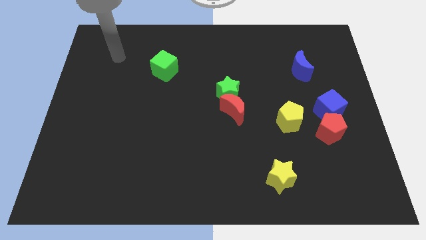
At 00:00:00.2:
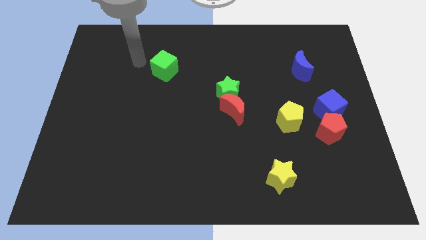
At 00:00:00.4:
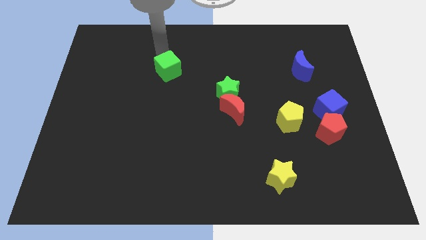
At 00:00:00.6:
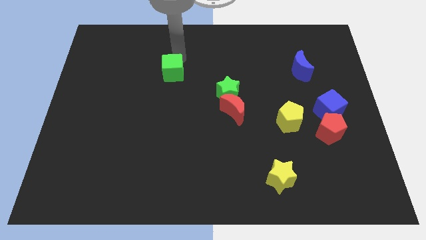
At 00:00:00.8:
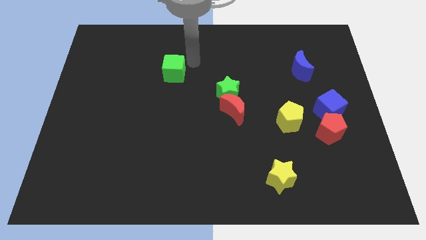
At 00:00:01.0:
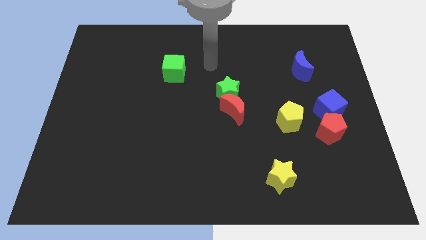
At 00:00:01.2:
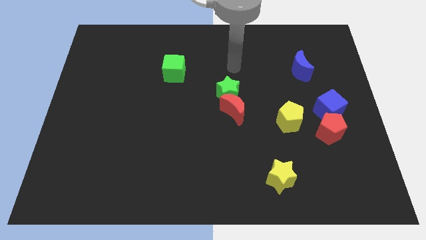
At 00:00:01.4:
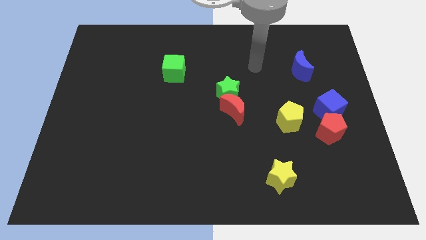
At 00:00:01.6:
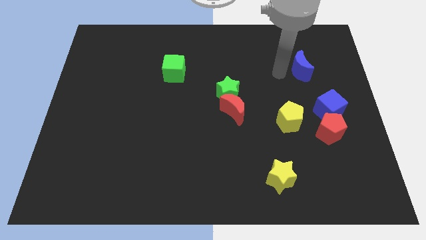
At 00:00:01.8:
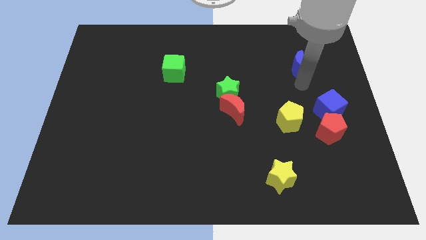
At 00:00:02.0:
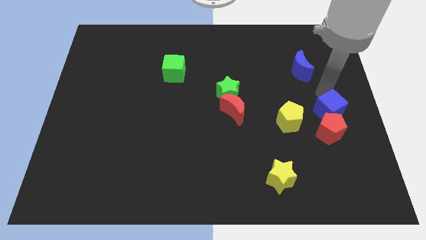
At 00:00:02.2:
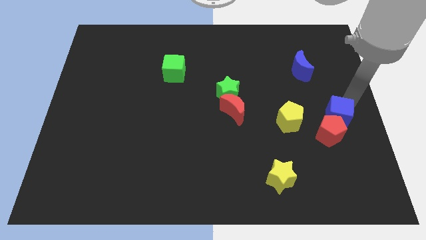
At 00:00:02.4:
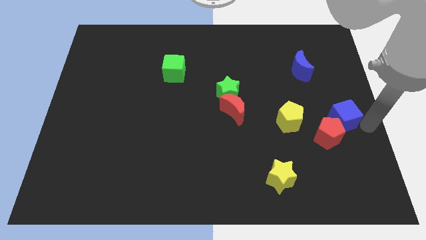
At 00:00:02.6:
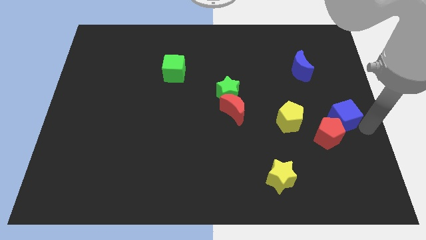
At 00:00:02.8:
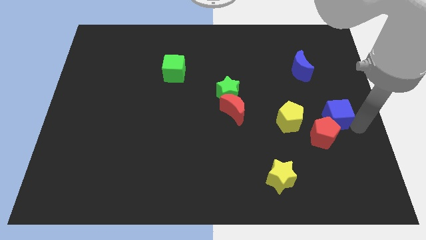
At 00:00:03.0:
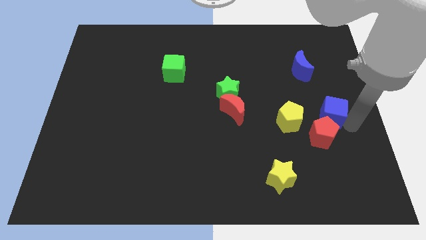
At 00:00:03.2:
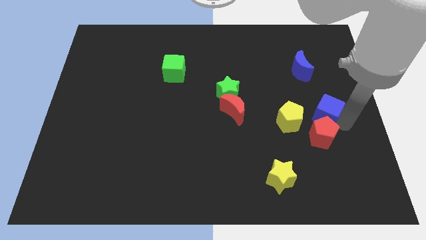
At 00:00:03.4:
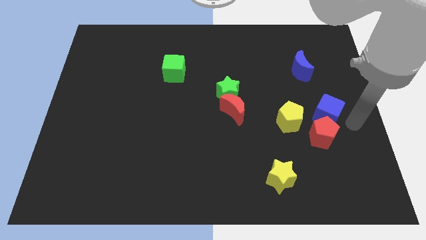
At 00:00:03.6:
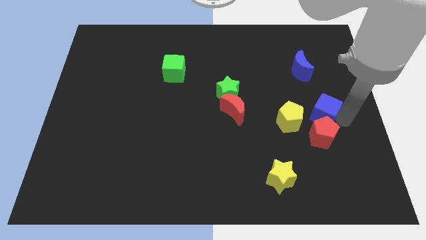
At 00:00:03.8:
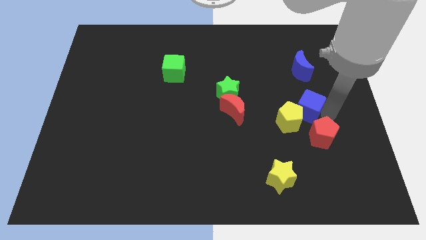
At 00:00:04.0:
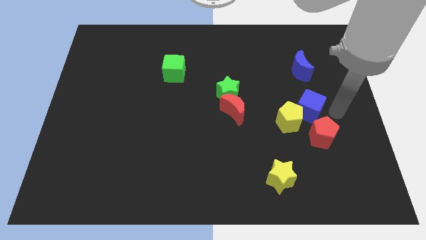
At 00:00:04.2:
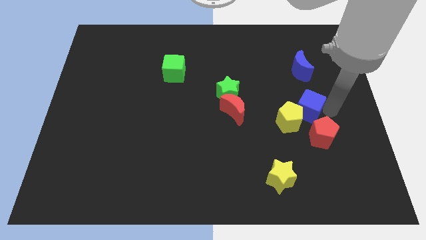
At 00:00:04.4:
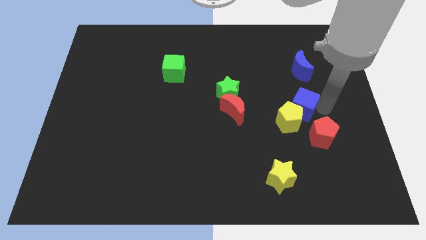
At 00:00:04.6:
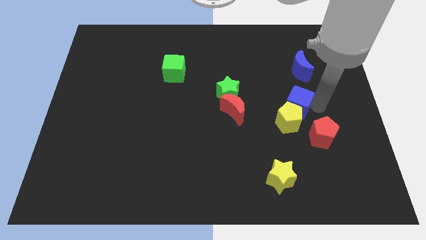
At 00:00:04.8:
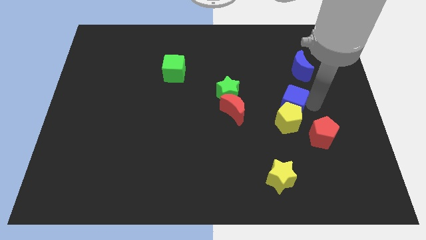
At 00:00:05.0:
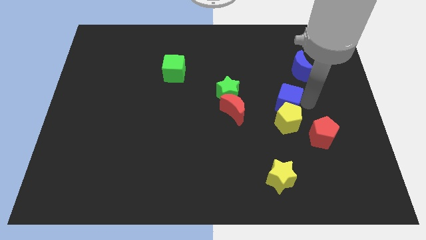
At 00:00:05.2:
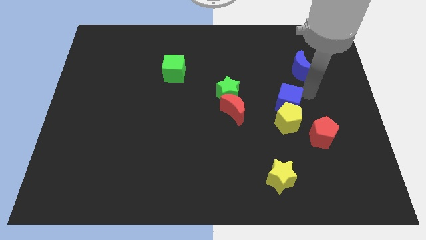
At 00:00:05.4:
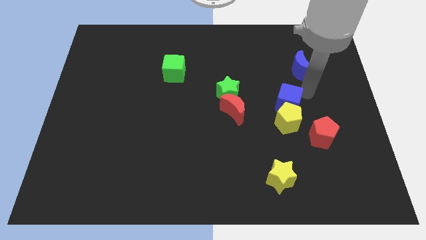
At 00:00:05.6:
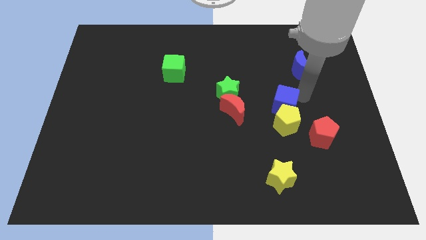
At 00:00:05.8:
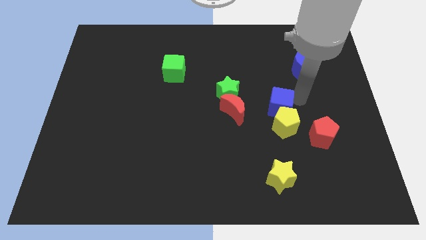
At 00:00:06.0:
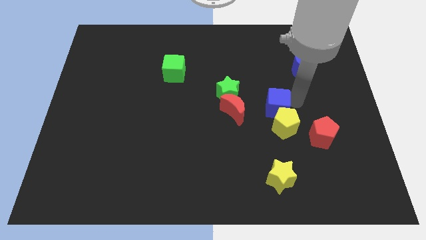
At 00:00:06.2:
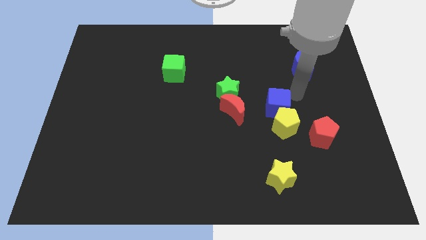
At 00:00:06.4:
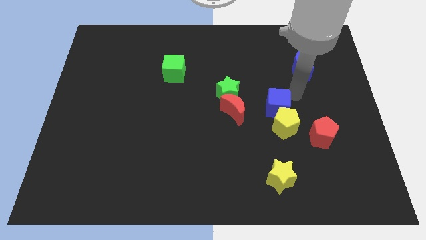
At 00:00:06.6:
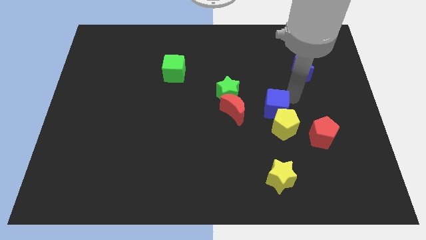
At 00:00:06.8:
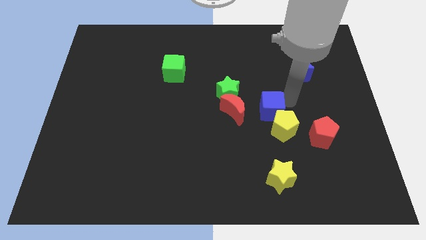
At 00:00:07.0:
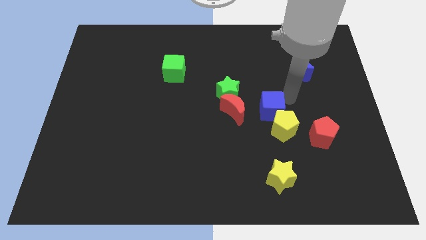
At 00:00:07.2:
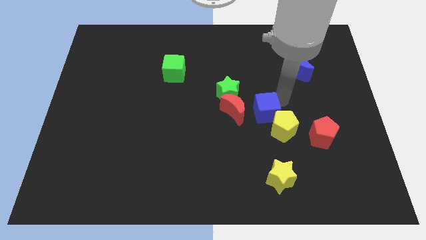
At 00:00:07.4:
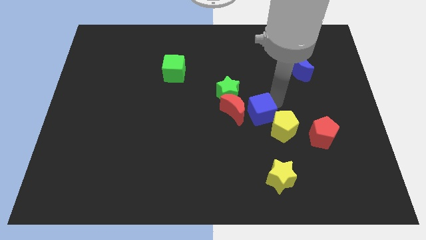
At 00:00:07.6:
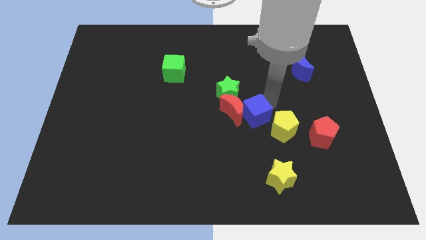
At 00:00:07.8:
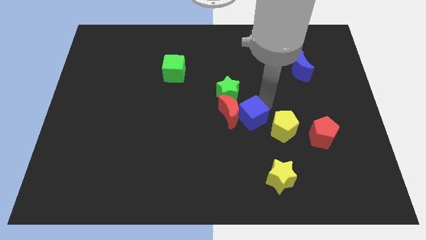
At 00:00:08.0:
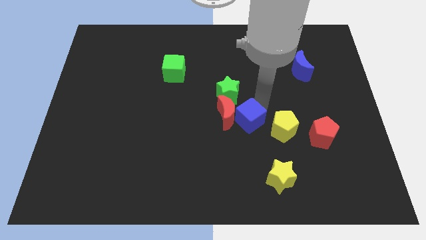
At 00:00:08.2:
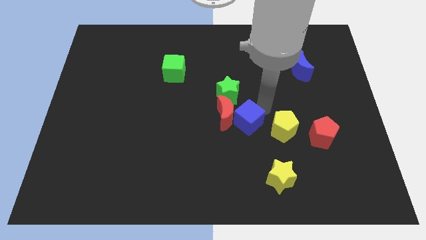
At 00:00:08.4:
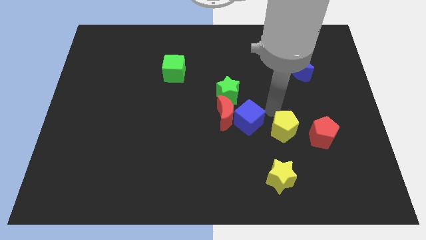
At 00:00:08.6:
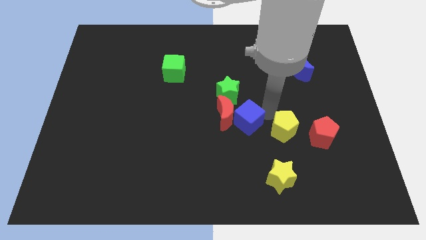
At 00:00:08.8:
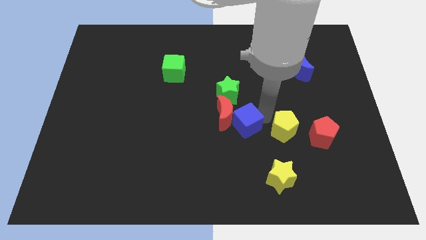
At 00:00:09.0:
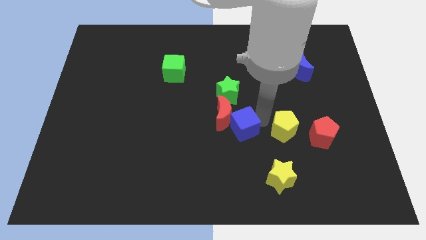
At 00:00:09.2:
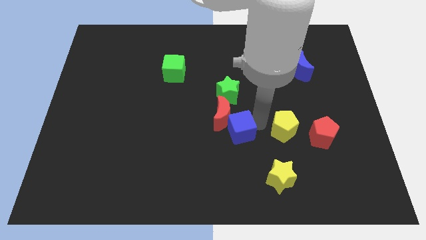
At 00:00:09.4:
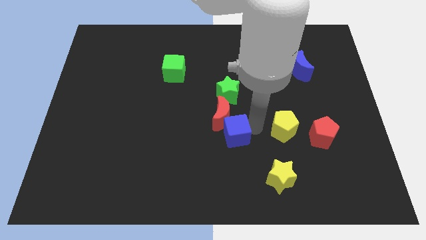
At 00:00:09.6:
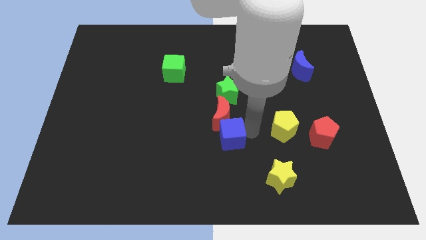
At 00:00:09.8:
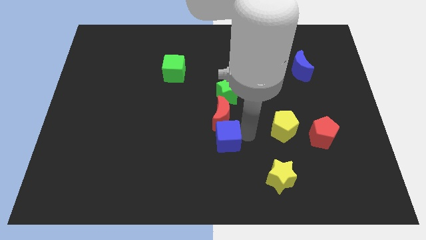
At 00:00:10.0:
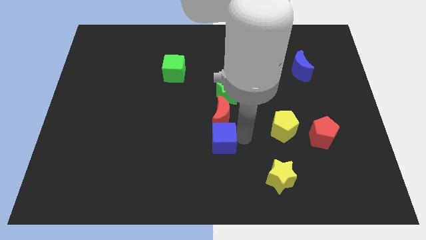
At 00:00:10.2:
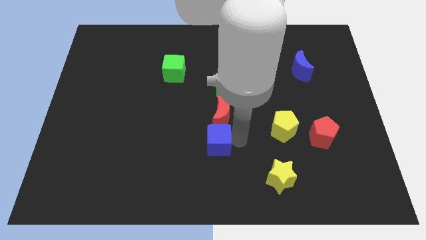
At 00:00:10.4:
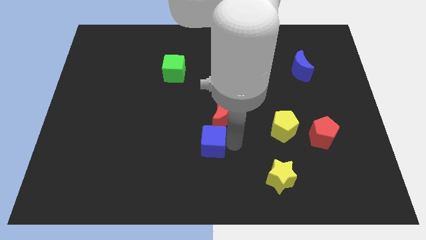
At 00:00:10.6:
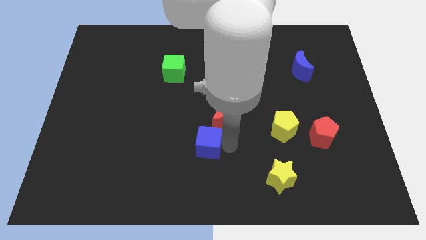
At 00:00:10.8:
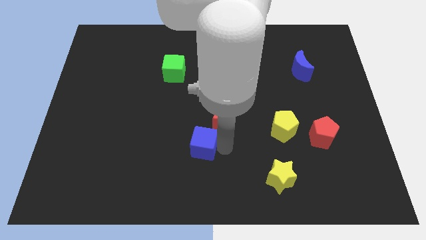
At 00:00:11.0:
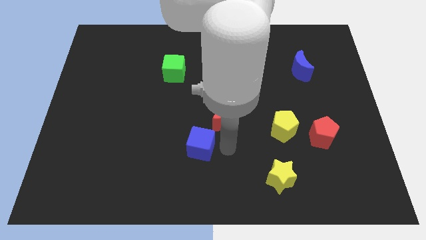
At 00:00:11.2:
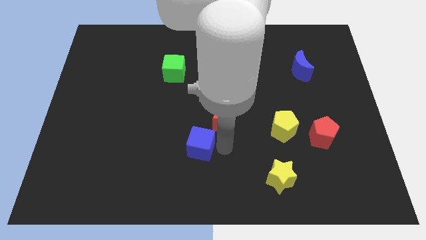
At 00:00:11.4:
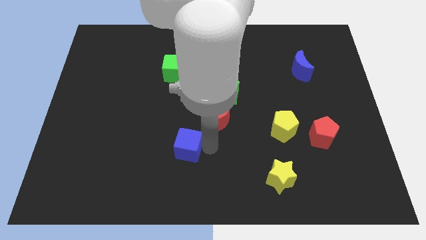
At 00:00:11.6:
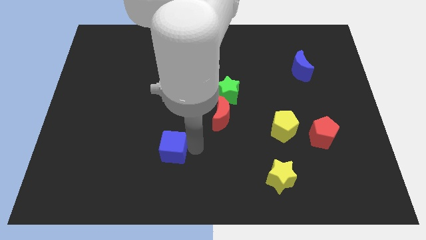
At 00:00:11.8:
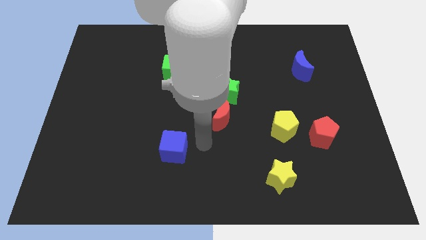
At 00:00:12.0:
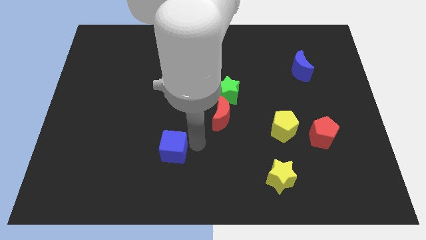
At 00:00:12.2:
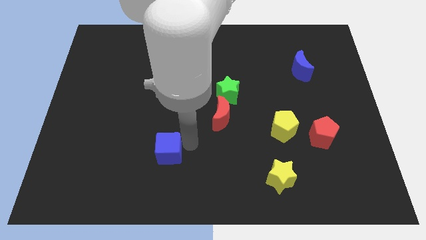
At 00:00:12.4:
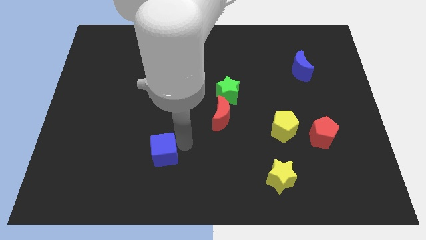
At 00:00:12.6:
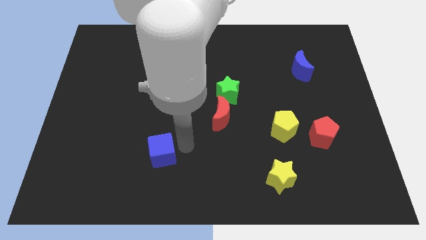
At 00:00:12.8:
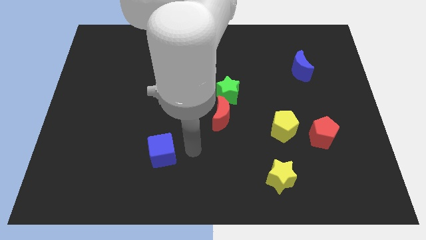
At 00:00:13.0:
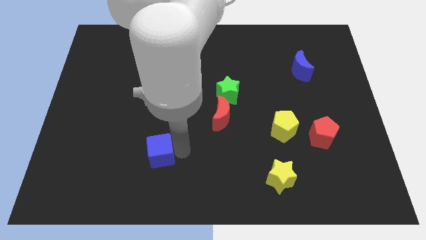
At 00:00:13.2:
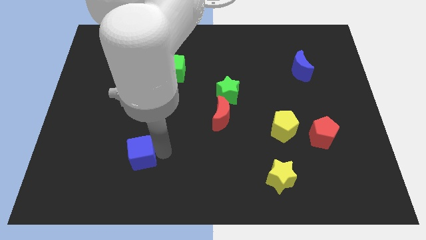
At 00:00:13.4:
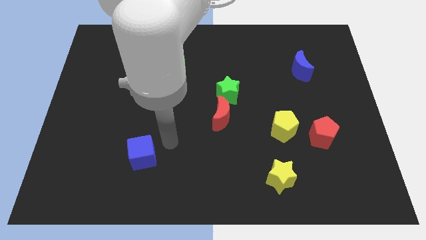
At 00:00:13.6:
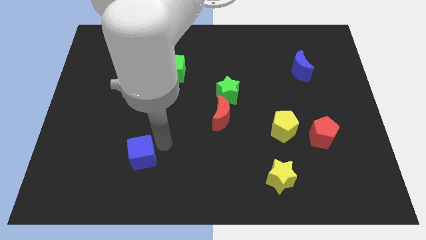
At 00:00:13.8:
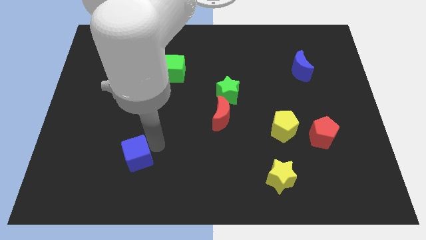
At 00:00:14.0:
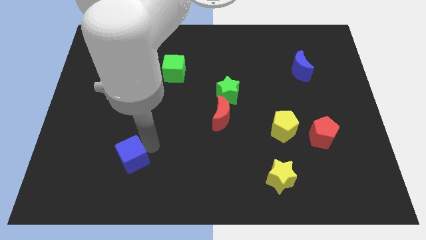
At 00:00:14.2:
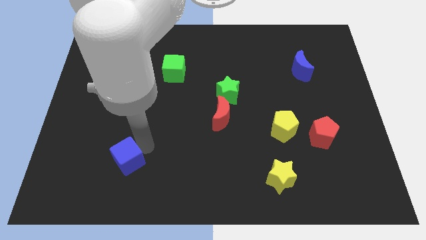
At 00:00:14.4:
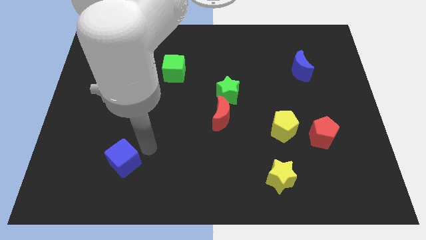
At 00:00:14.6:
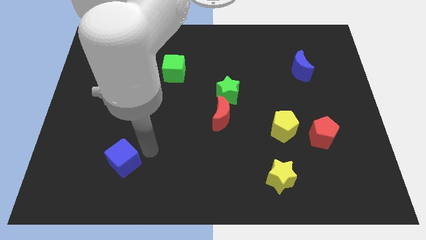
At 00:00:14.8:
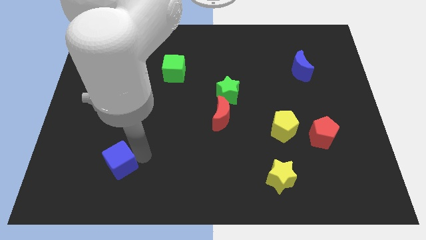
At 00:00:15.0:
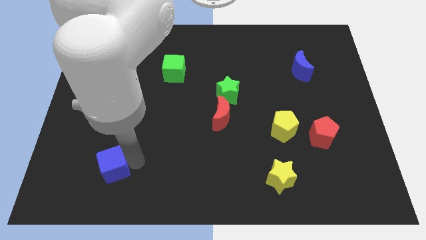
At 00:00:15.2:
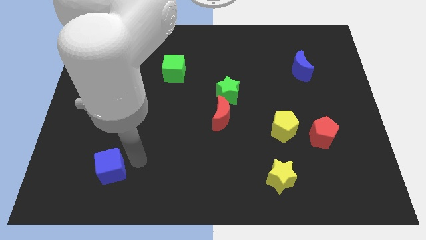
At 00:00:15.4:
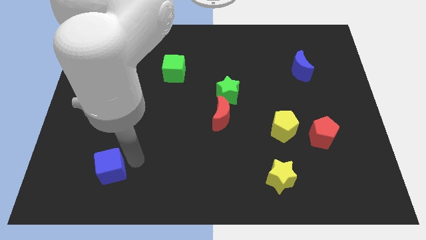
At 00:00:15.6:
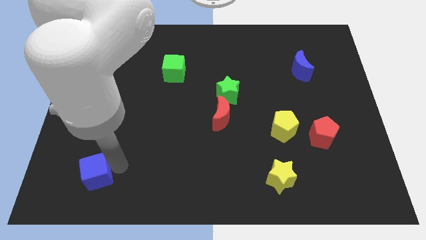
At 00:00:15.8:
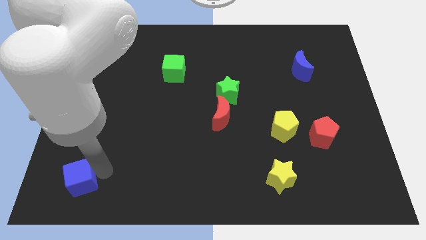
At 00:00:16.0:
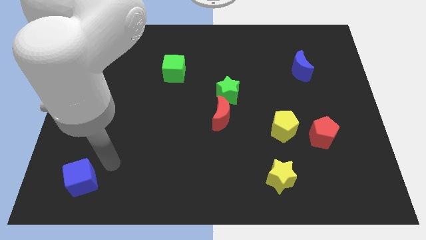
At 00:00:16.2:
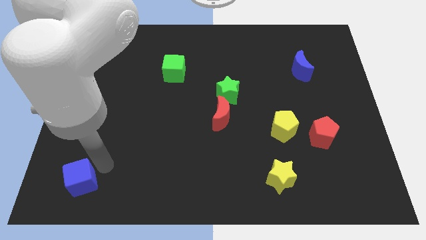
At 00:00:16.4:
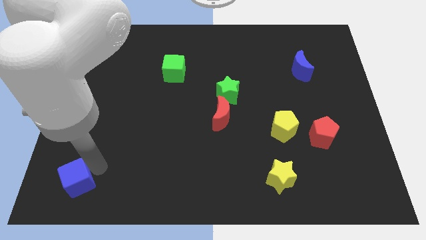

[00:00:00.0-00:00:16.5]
slide the blue cube to the bottom left corner
